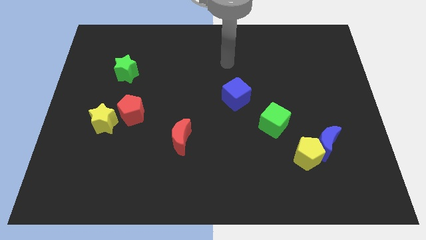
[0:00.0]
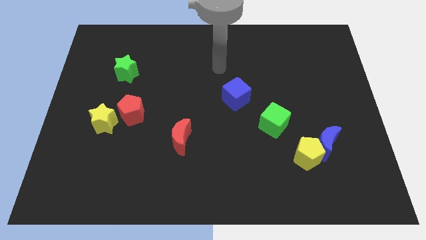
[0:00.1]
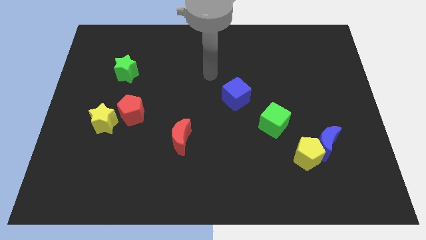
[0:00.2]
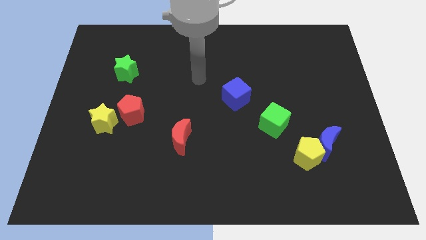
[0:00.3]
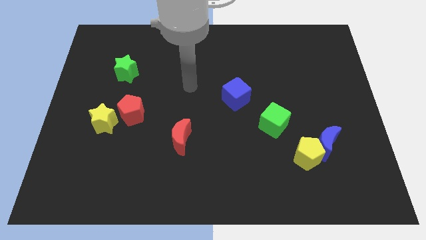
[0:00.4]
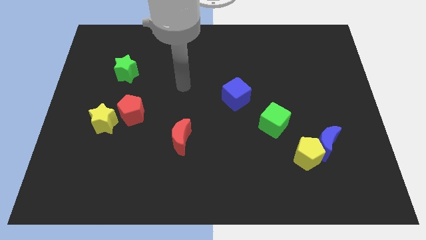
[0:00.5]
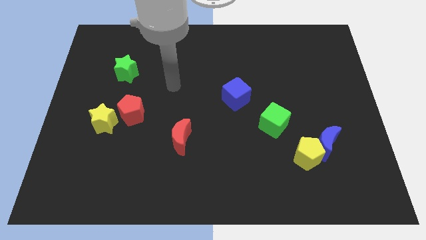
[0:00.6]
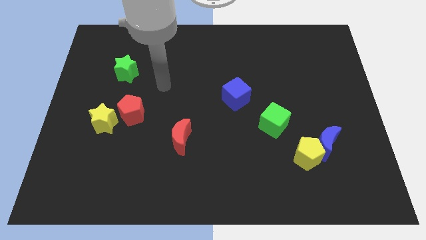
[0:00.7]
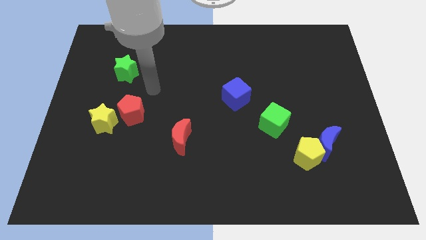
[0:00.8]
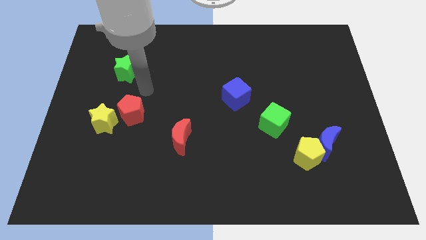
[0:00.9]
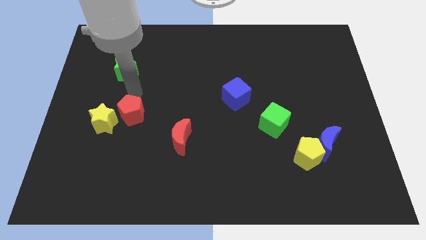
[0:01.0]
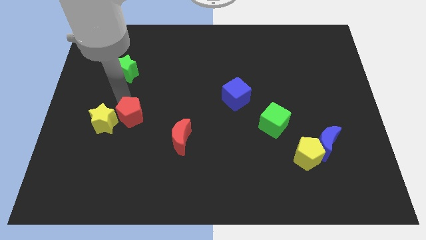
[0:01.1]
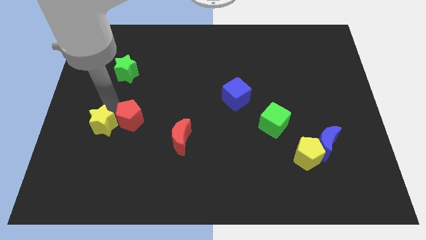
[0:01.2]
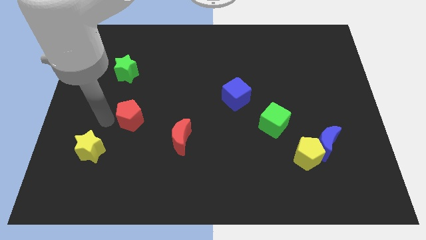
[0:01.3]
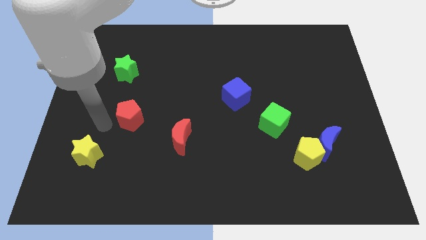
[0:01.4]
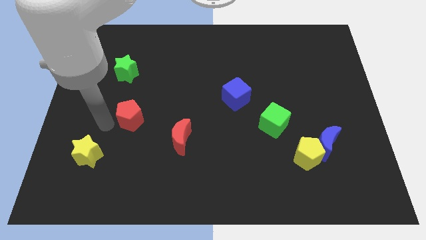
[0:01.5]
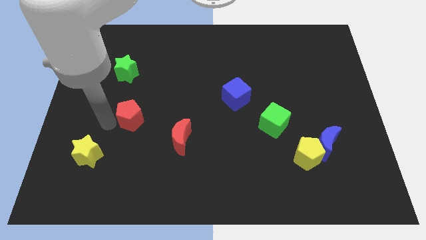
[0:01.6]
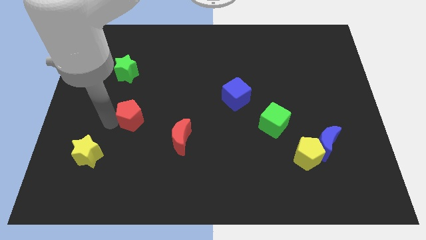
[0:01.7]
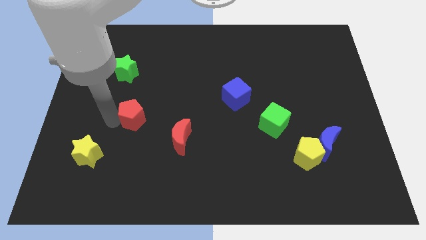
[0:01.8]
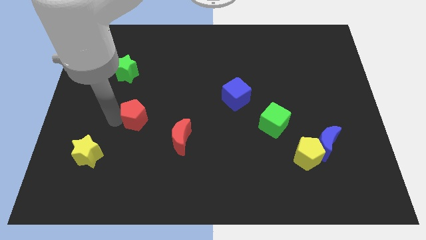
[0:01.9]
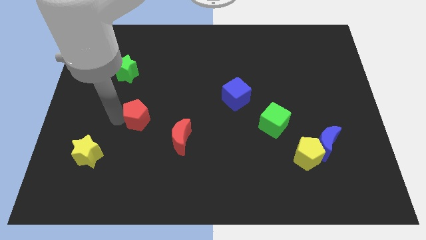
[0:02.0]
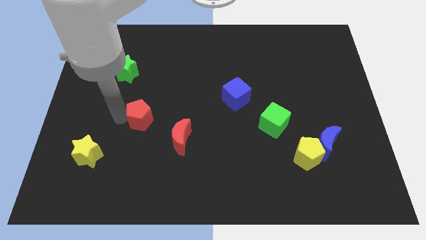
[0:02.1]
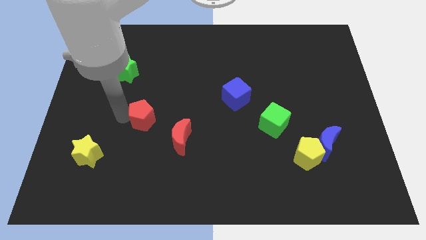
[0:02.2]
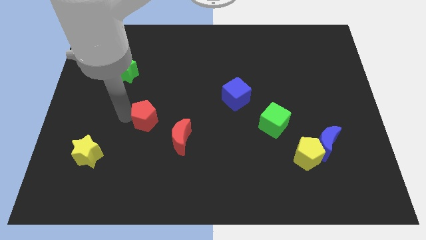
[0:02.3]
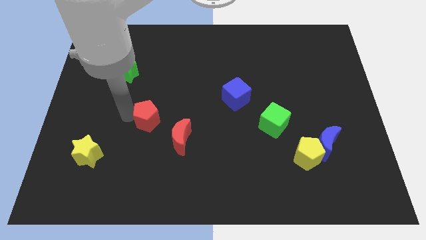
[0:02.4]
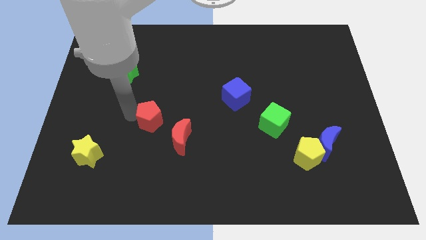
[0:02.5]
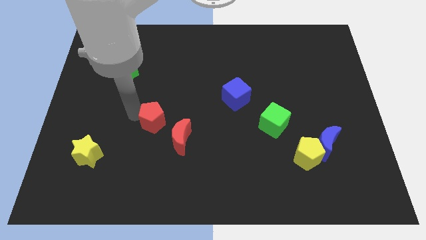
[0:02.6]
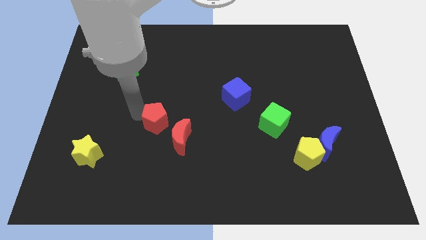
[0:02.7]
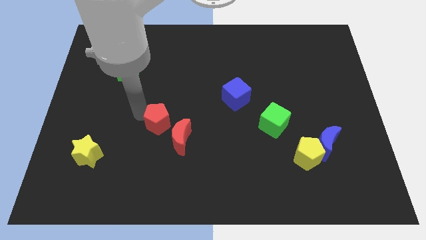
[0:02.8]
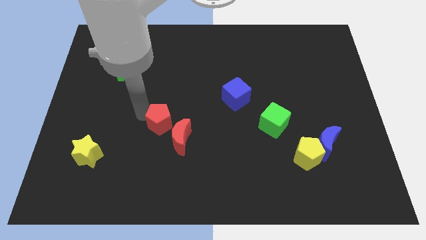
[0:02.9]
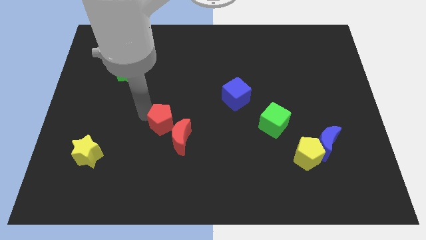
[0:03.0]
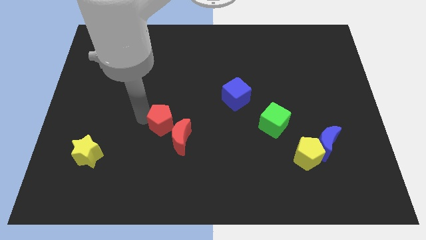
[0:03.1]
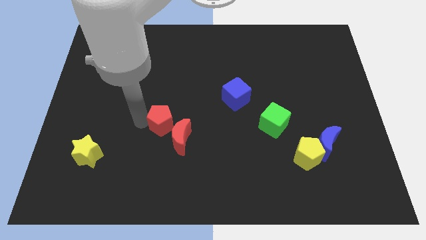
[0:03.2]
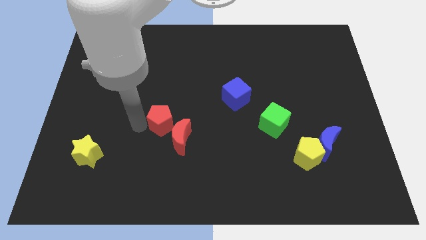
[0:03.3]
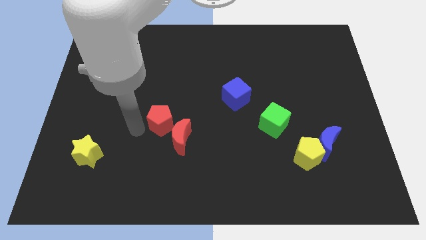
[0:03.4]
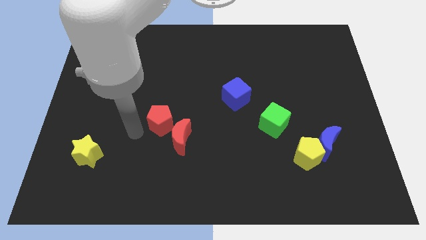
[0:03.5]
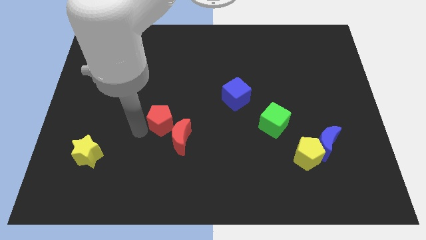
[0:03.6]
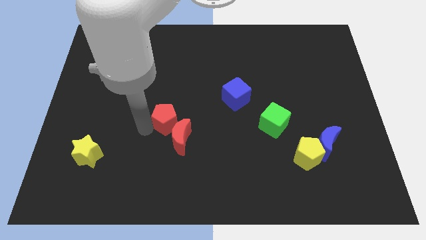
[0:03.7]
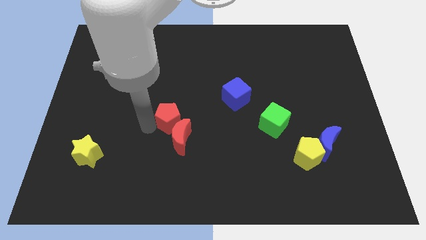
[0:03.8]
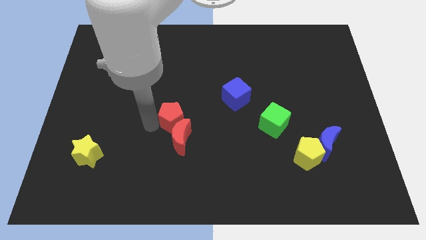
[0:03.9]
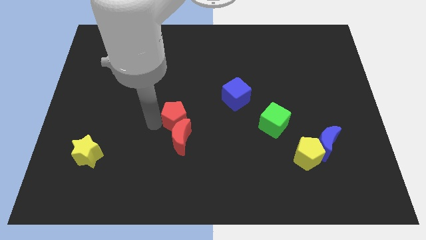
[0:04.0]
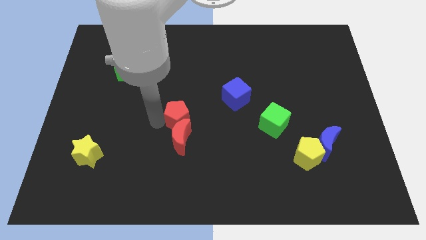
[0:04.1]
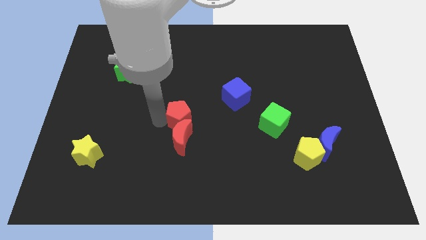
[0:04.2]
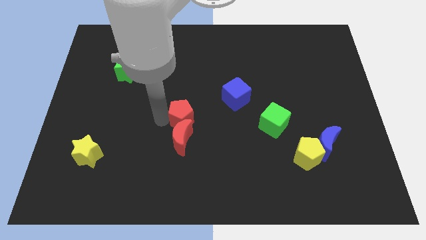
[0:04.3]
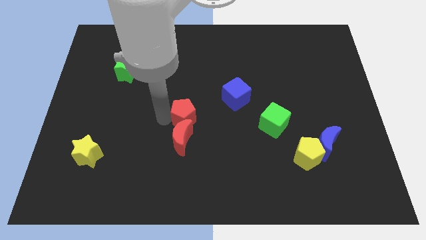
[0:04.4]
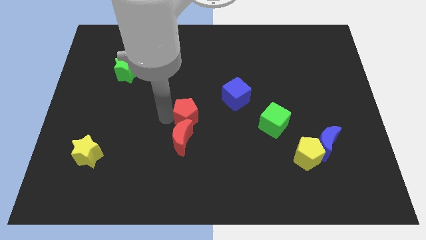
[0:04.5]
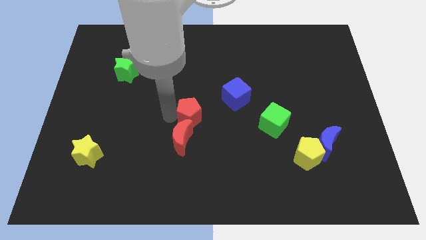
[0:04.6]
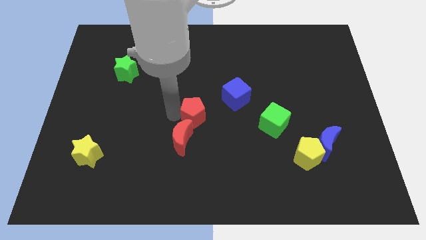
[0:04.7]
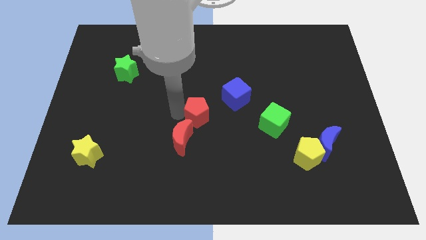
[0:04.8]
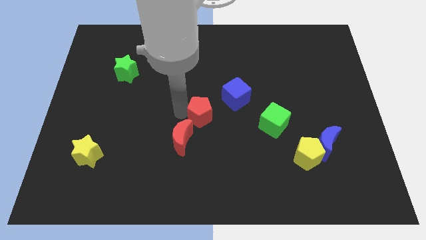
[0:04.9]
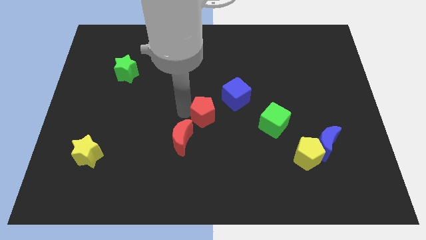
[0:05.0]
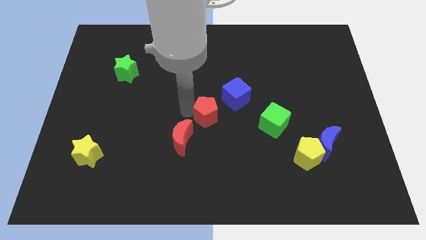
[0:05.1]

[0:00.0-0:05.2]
move the red pentagon left of the green cube

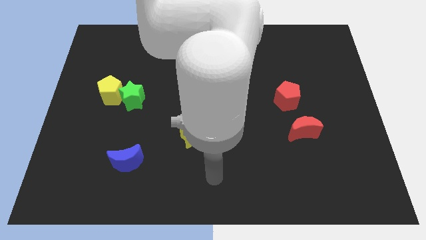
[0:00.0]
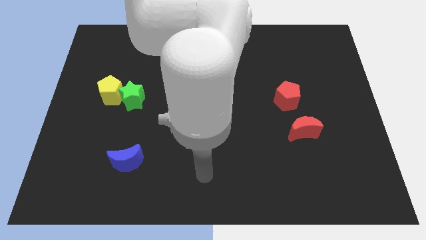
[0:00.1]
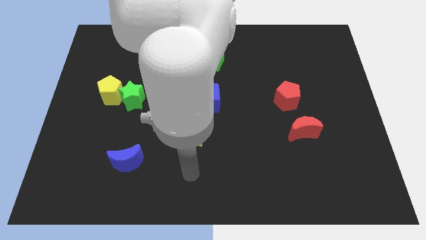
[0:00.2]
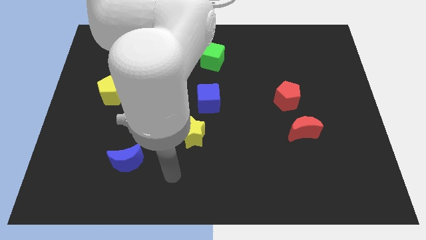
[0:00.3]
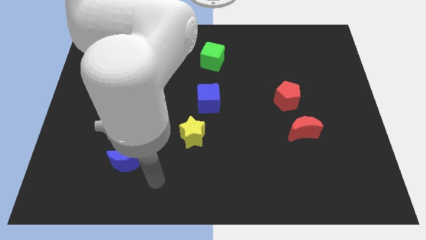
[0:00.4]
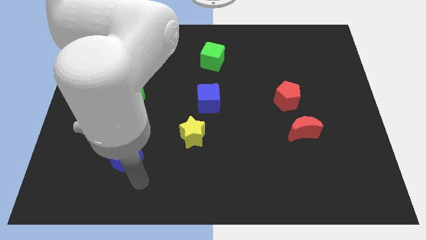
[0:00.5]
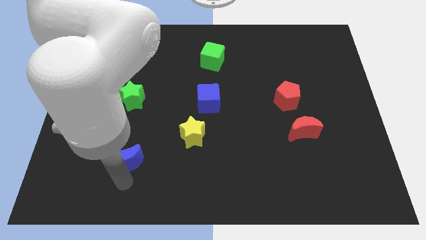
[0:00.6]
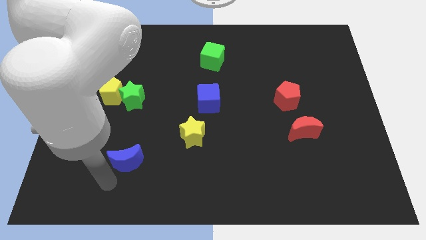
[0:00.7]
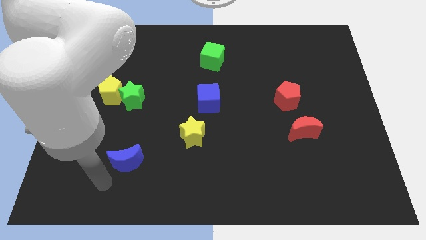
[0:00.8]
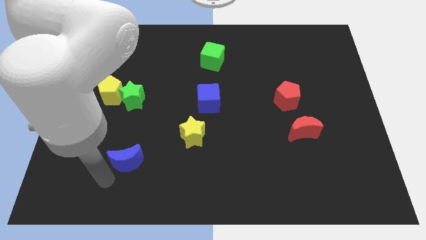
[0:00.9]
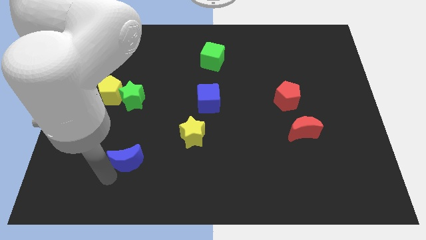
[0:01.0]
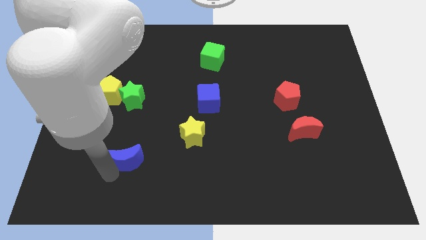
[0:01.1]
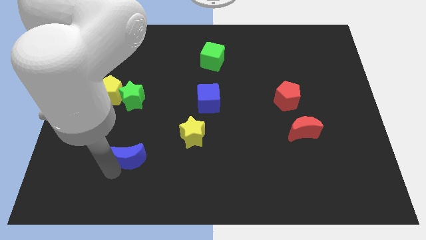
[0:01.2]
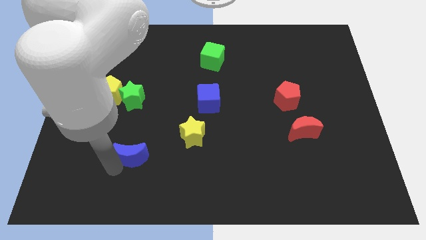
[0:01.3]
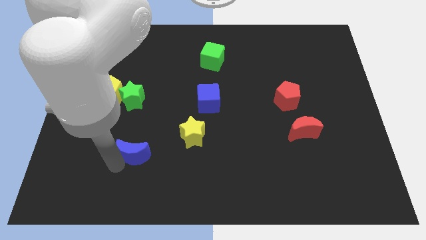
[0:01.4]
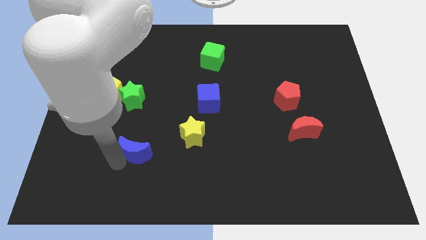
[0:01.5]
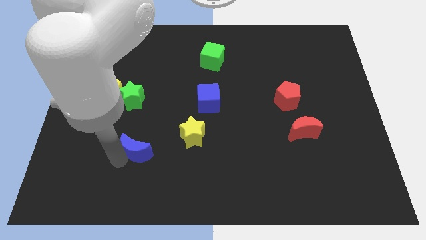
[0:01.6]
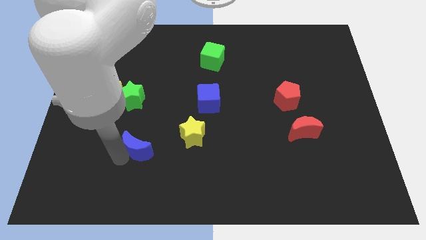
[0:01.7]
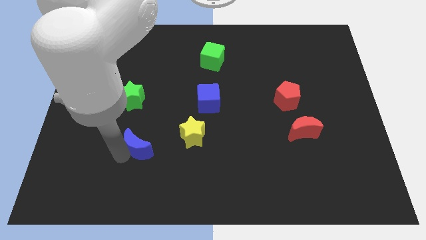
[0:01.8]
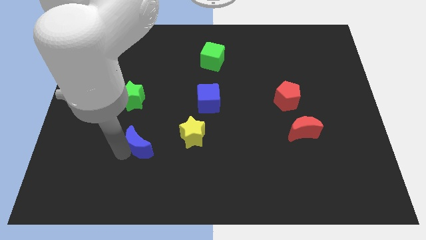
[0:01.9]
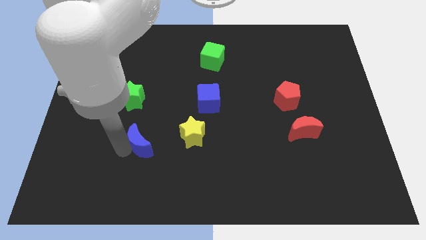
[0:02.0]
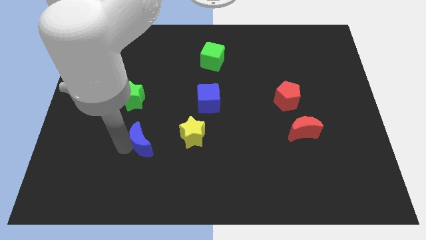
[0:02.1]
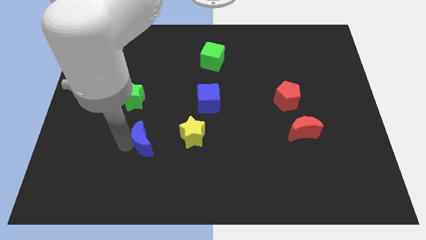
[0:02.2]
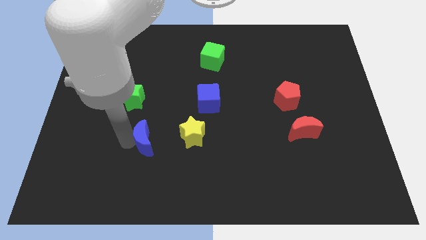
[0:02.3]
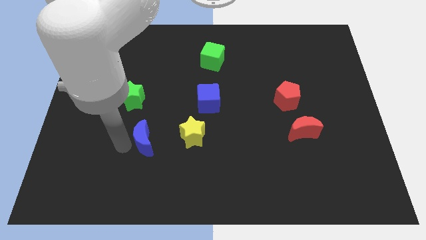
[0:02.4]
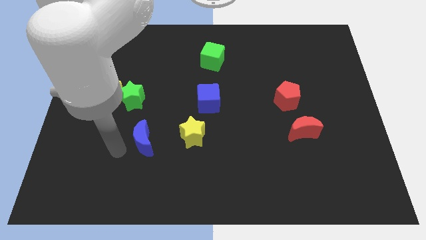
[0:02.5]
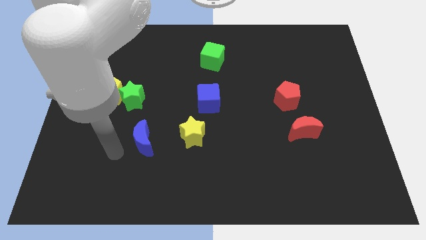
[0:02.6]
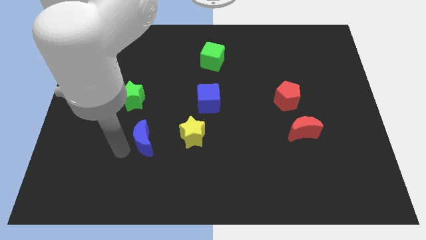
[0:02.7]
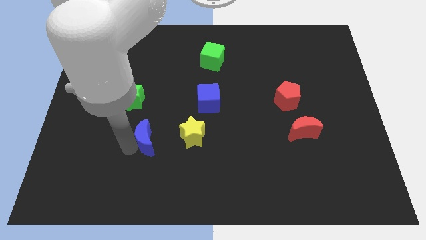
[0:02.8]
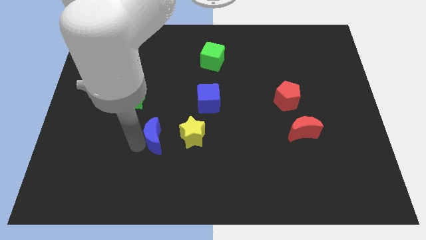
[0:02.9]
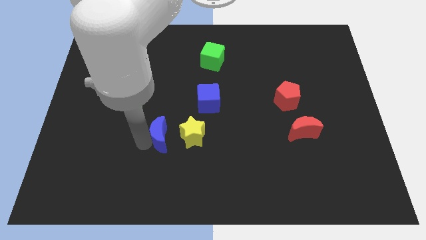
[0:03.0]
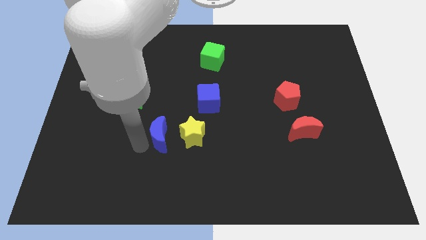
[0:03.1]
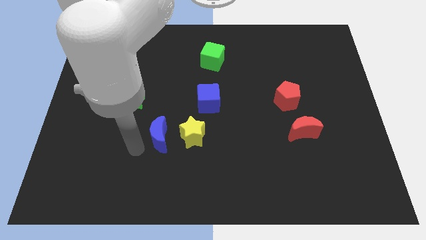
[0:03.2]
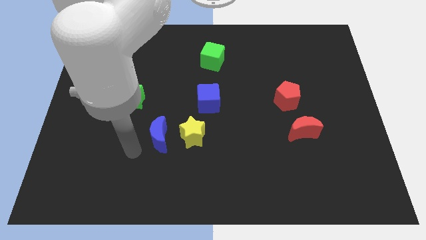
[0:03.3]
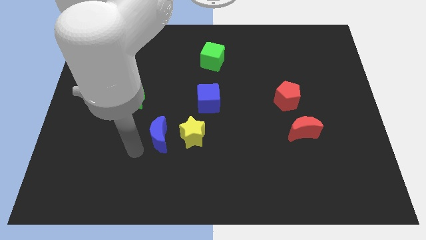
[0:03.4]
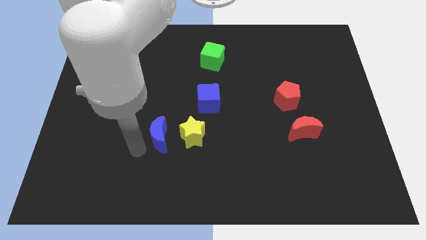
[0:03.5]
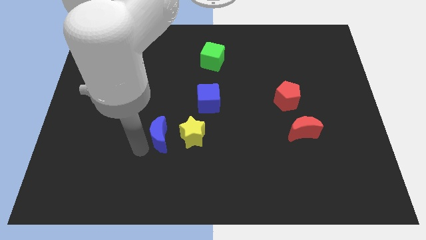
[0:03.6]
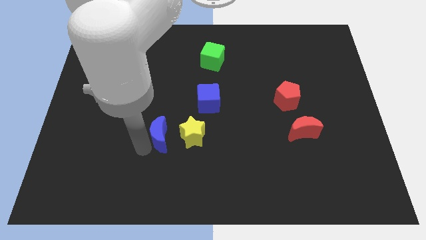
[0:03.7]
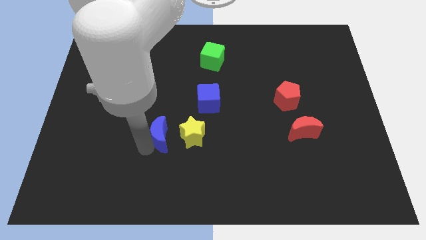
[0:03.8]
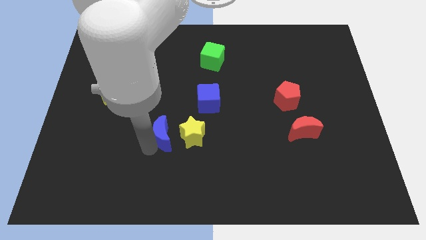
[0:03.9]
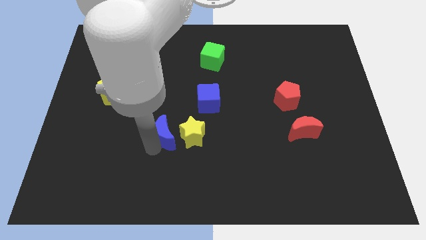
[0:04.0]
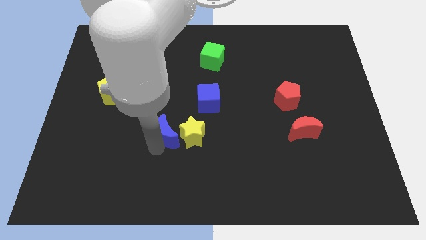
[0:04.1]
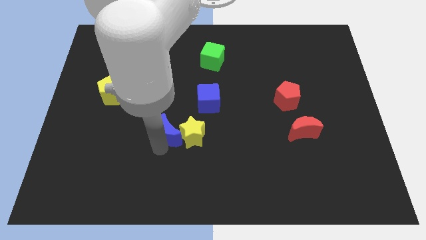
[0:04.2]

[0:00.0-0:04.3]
push the blue moon to the bottom left of the blue cube
